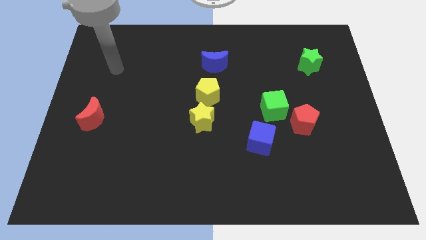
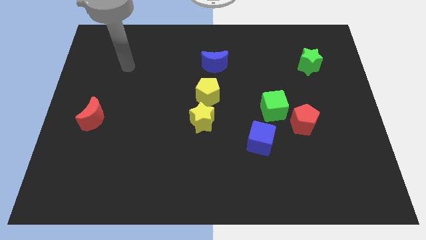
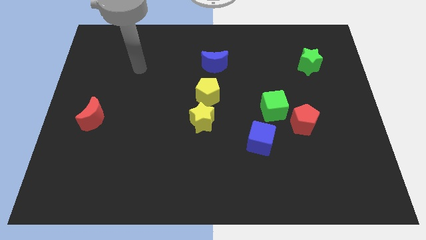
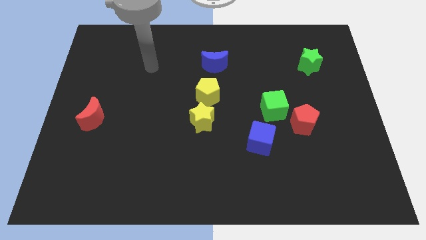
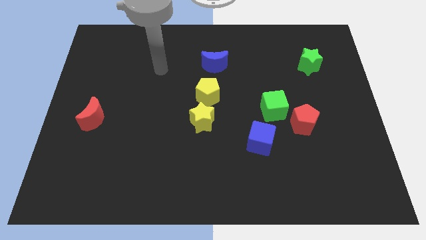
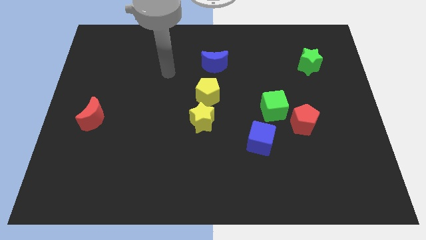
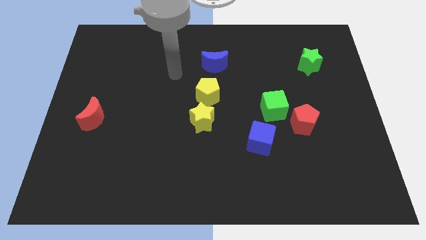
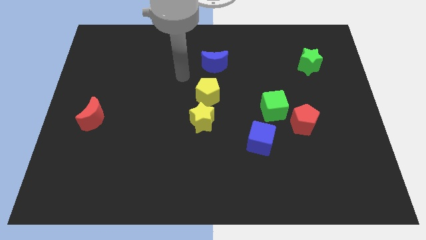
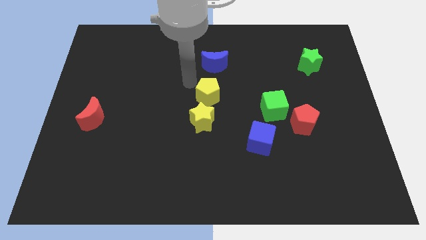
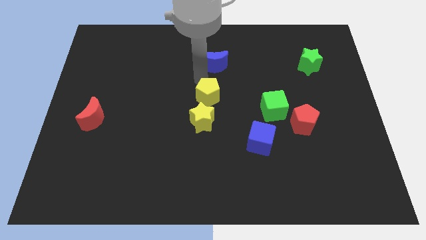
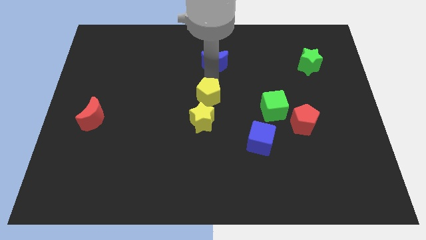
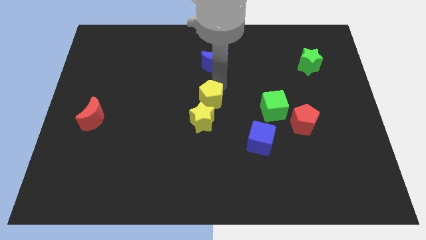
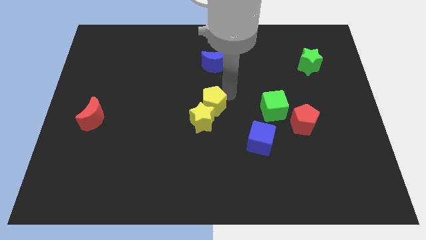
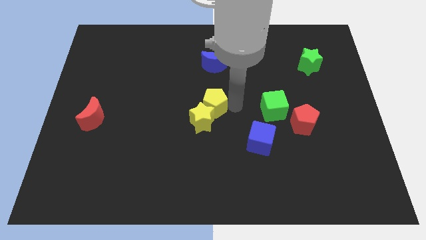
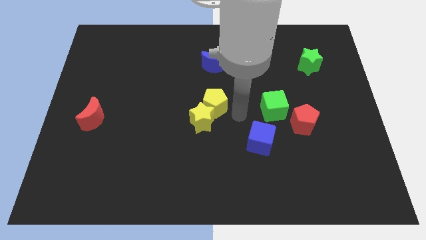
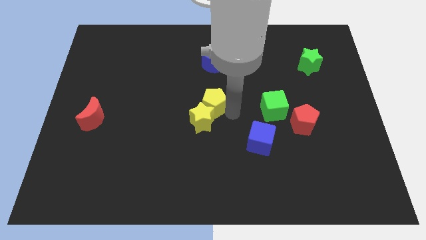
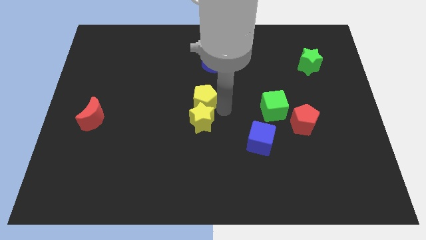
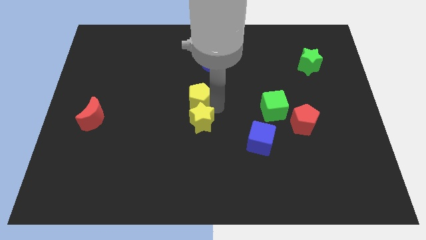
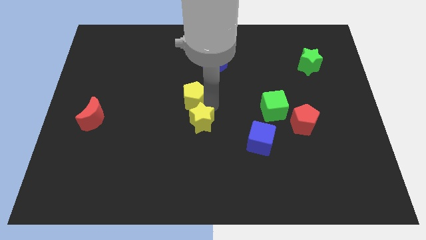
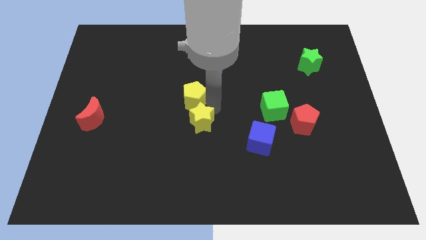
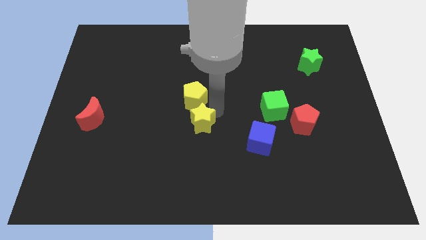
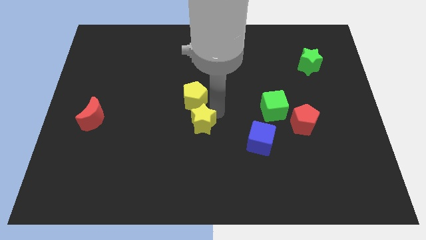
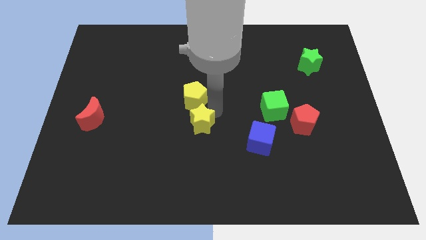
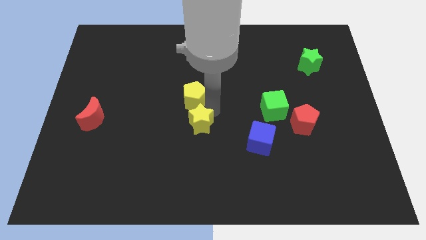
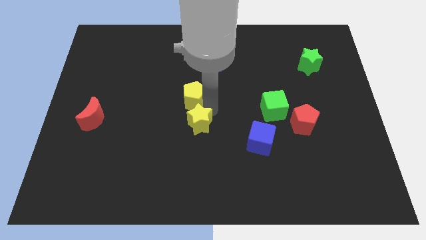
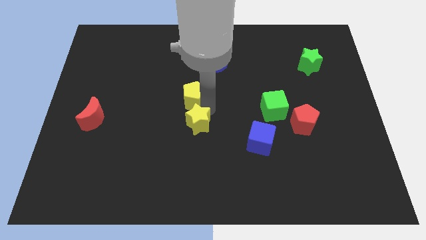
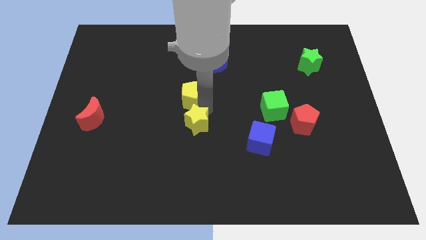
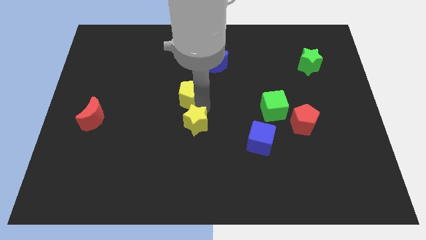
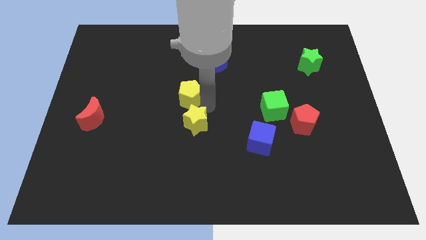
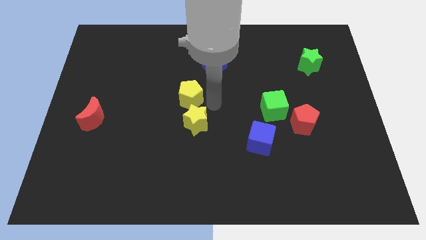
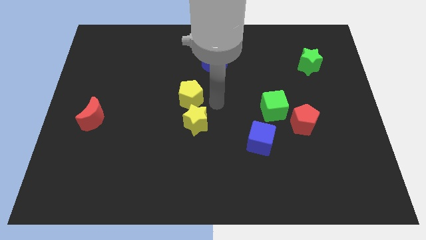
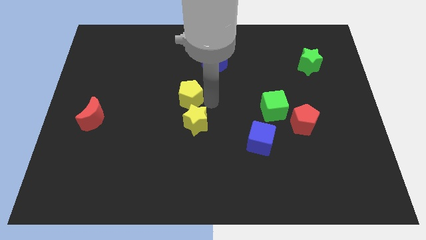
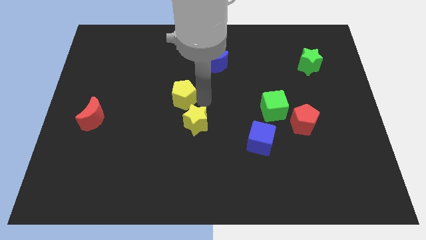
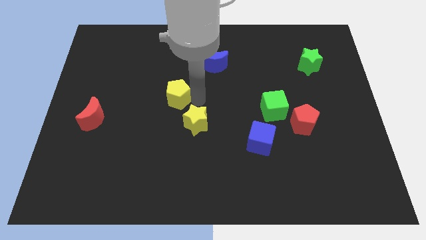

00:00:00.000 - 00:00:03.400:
slide the yellow pentagon left a little

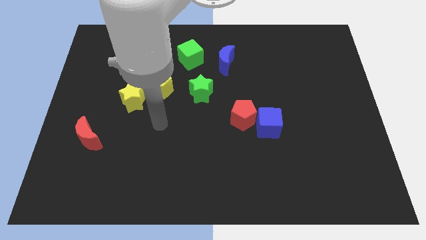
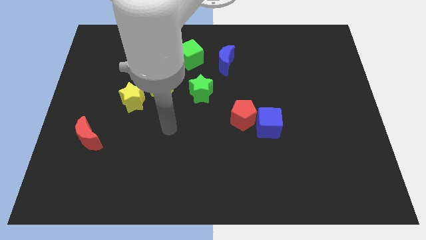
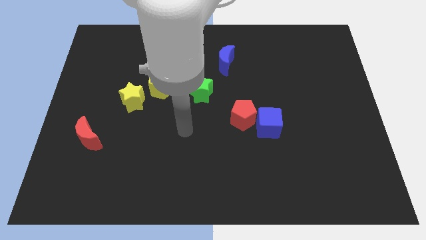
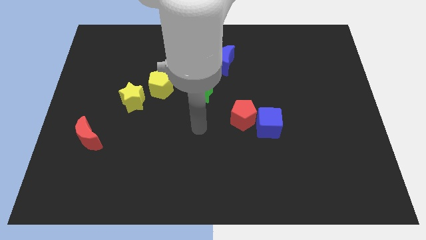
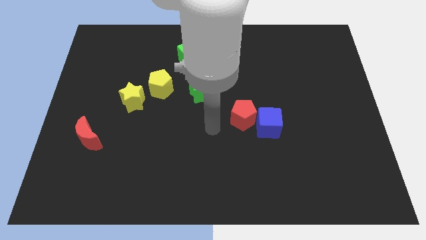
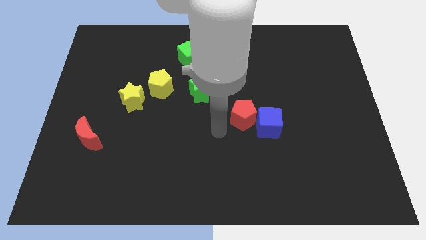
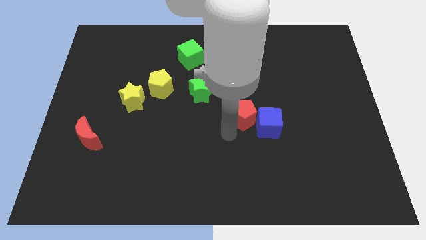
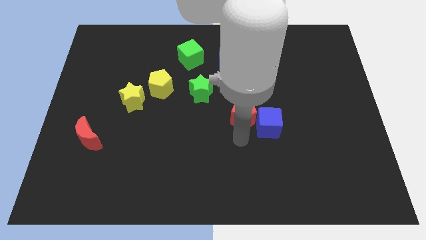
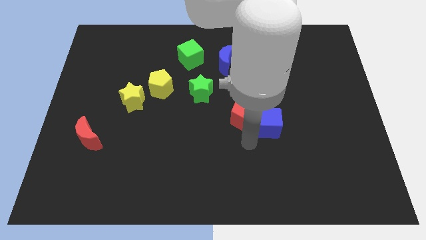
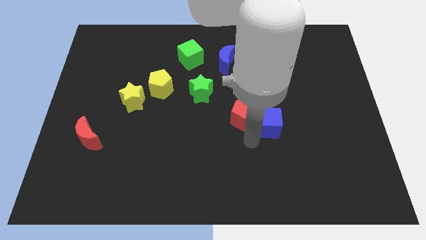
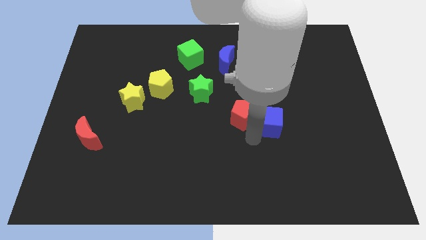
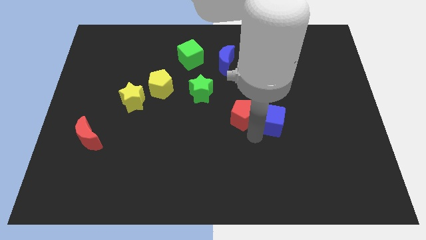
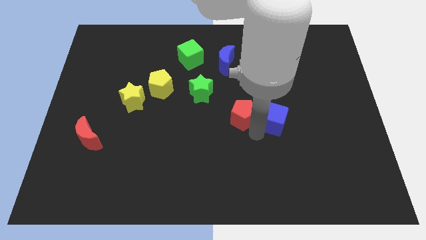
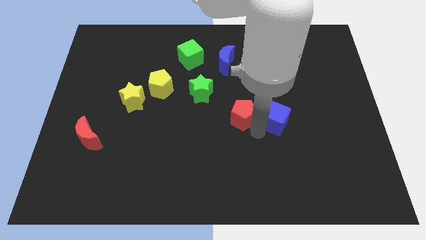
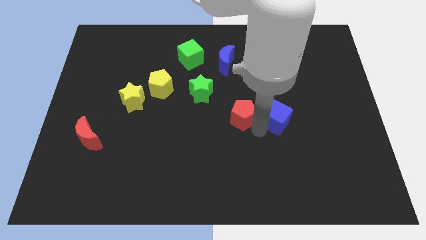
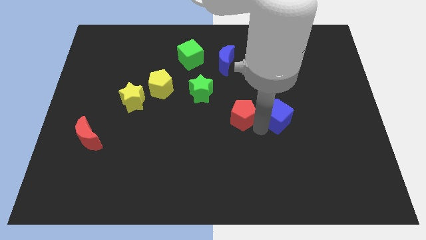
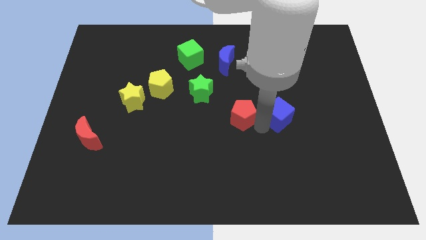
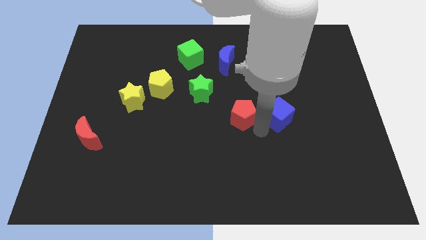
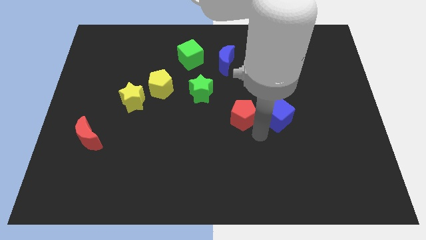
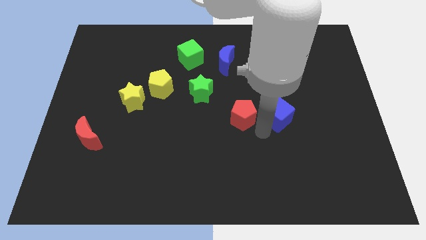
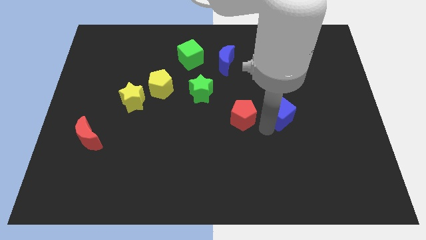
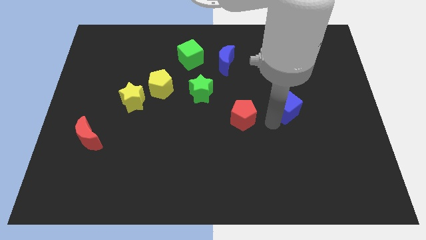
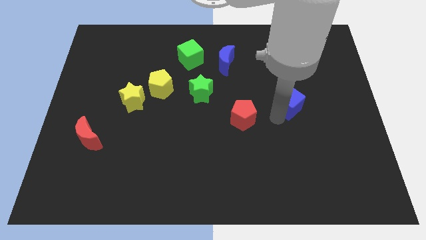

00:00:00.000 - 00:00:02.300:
slightly move the blue cube diagonally up and right

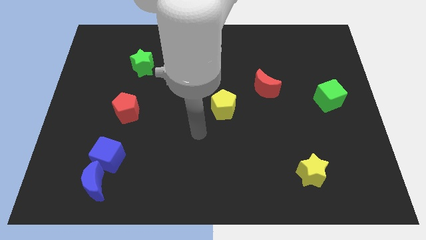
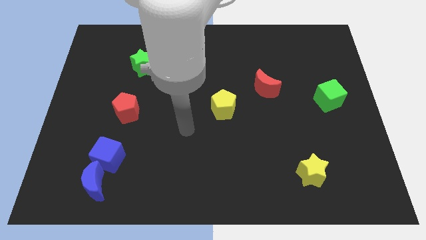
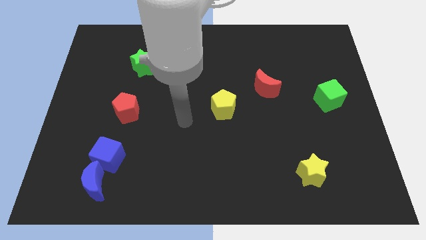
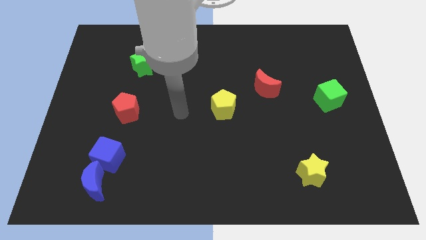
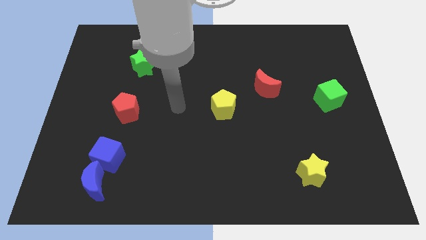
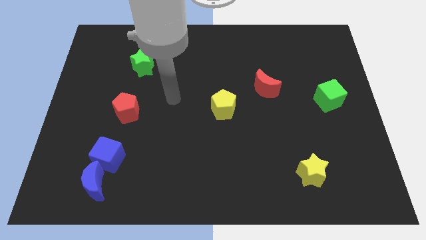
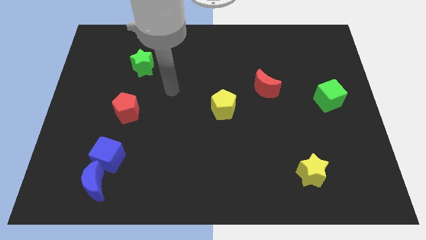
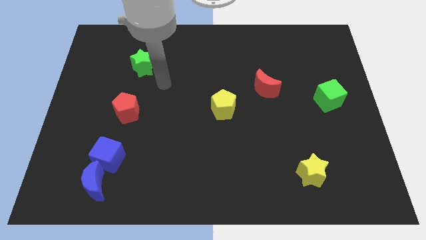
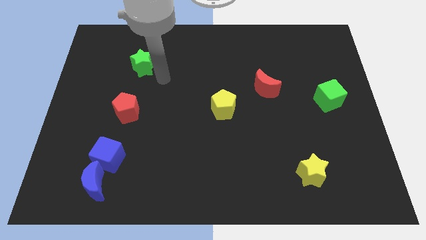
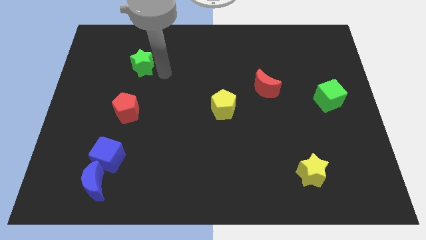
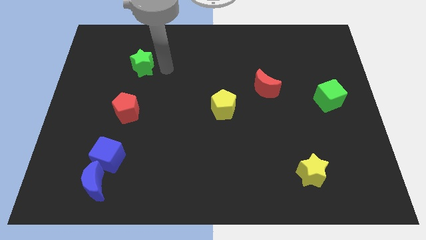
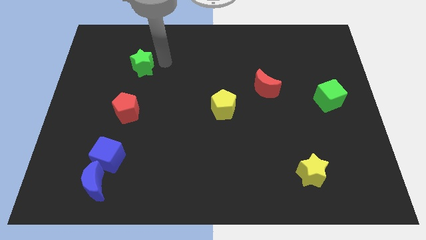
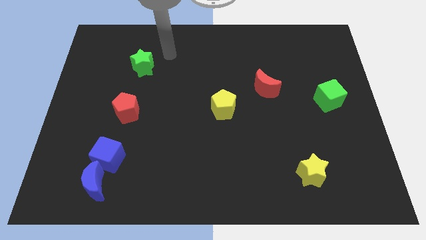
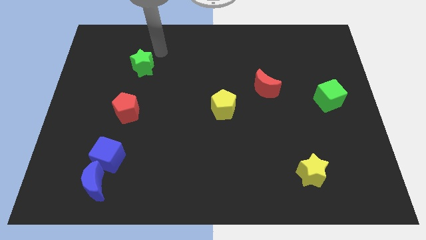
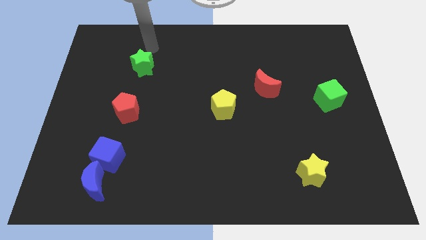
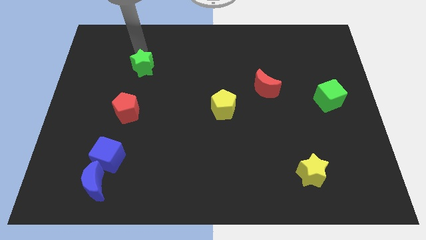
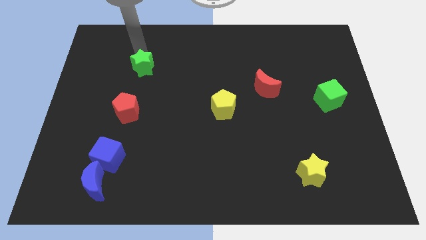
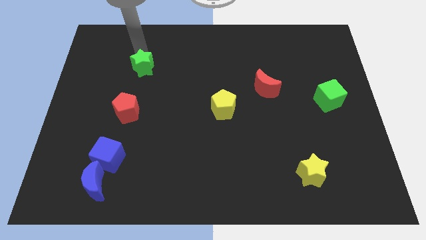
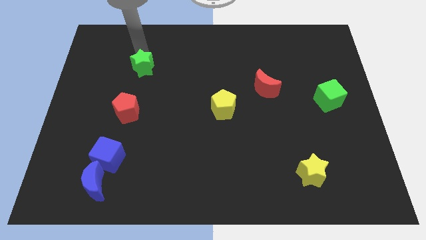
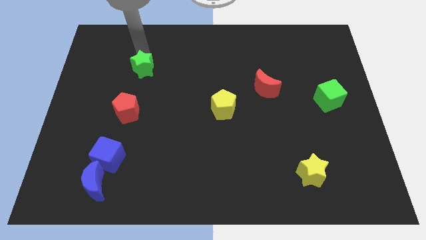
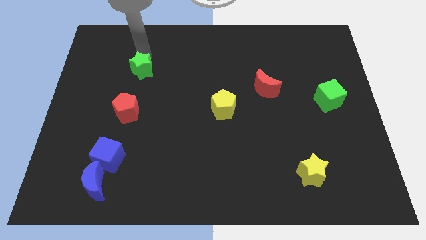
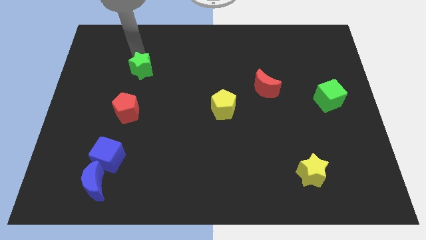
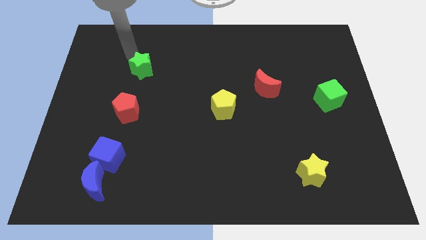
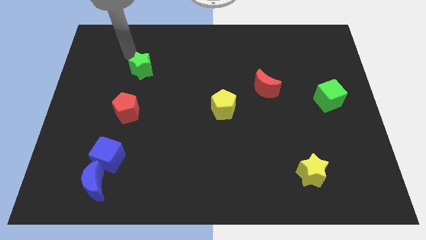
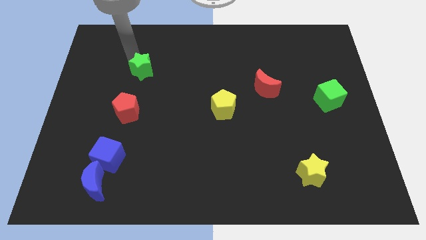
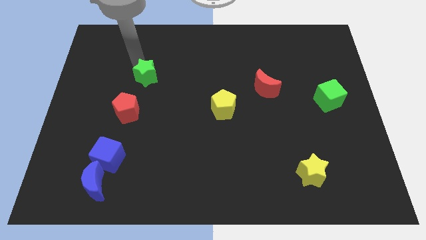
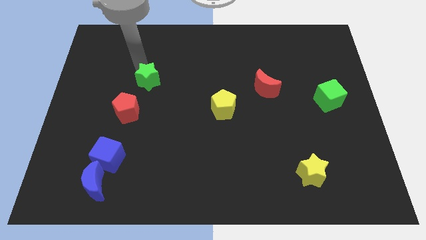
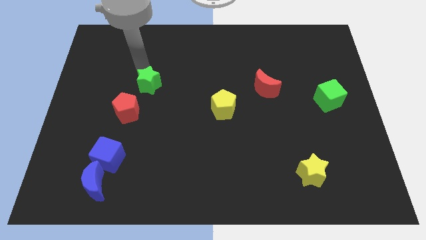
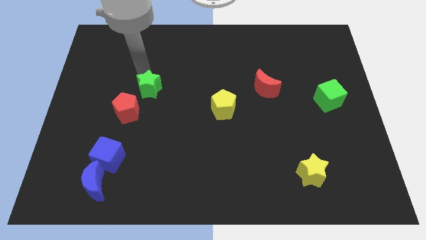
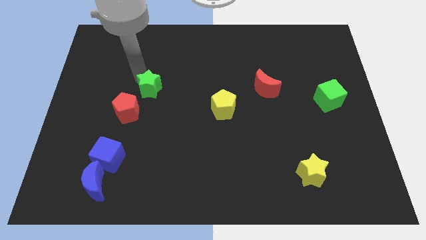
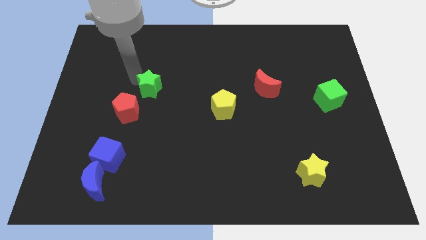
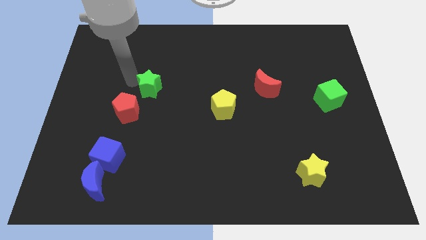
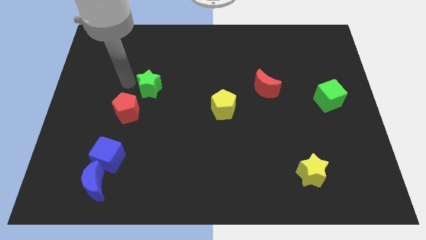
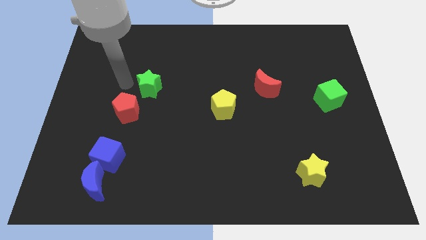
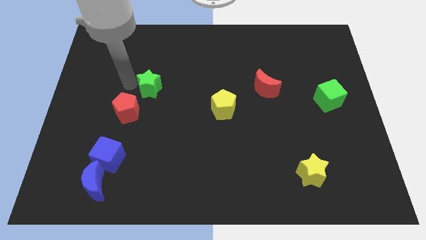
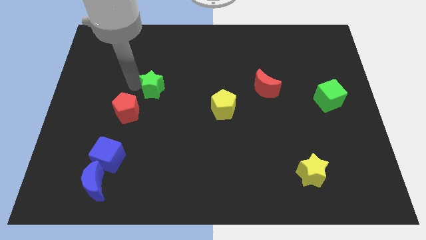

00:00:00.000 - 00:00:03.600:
move the green star somewhat diagonally downwards and to the right
